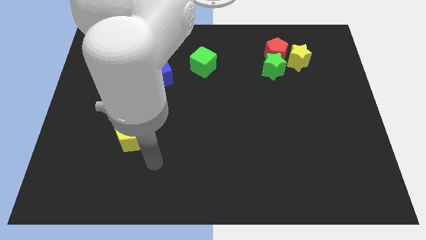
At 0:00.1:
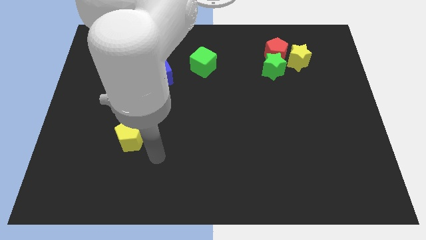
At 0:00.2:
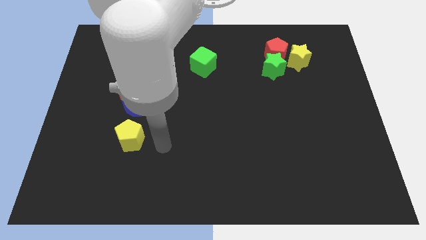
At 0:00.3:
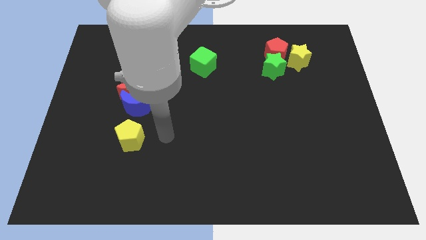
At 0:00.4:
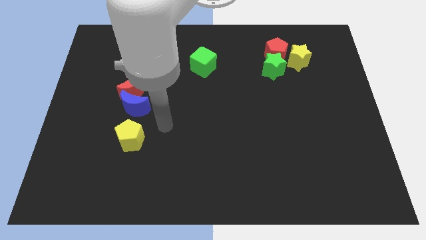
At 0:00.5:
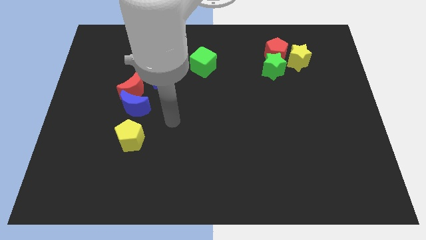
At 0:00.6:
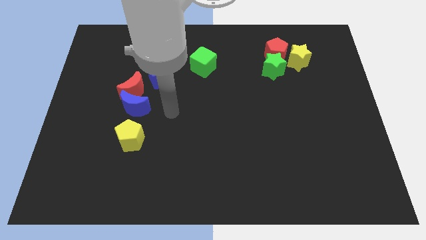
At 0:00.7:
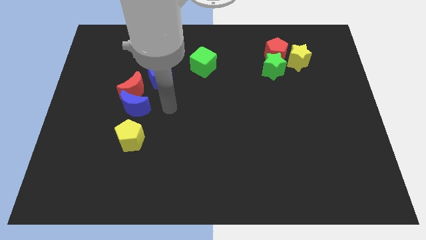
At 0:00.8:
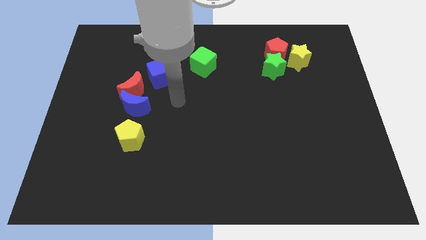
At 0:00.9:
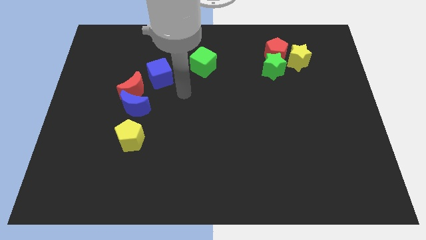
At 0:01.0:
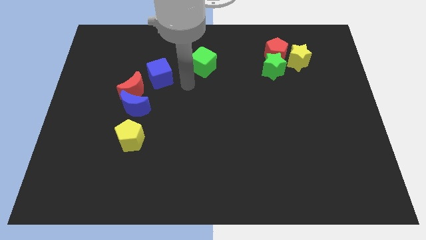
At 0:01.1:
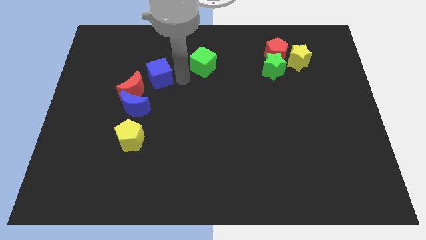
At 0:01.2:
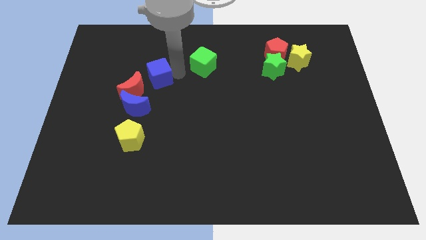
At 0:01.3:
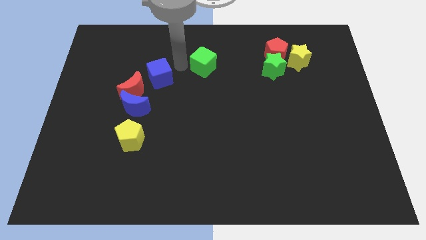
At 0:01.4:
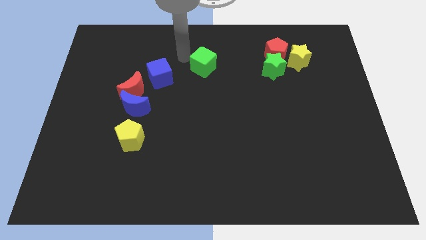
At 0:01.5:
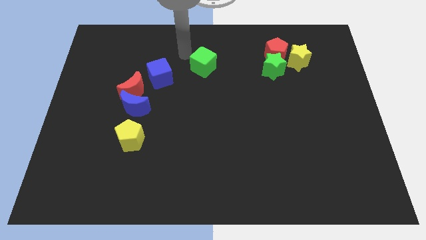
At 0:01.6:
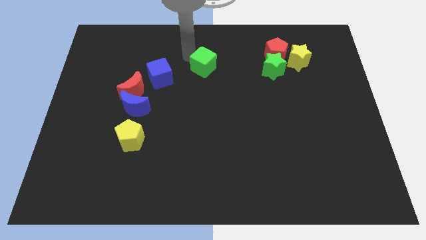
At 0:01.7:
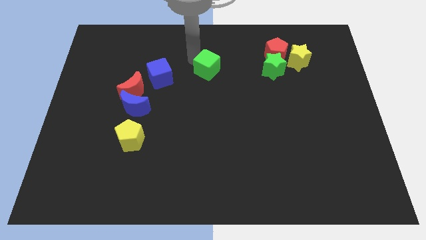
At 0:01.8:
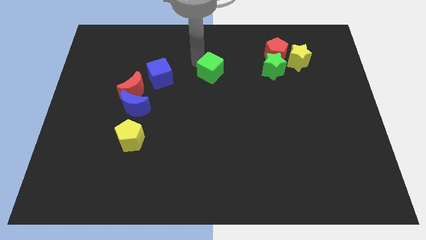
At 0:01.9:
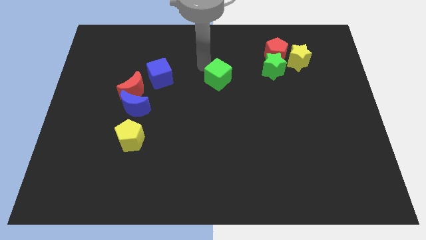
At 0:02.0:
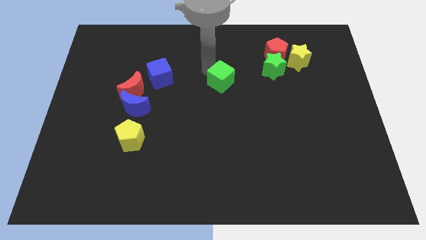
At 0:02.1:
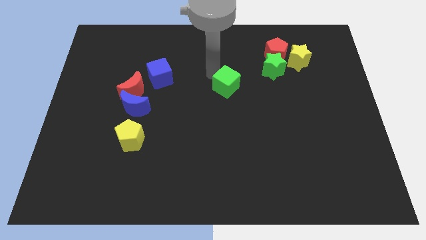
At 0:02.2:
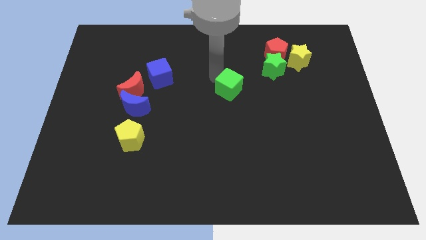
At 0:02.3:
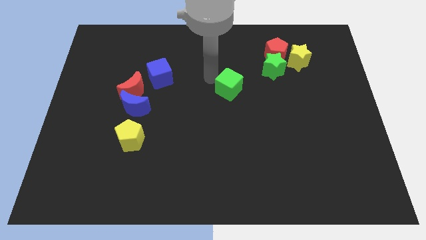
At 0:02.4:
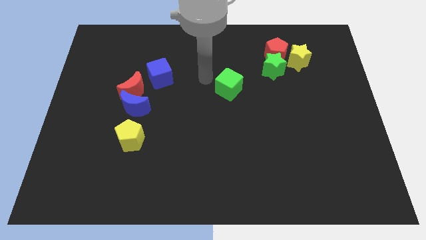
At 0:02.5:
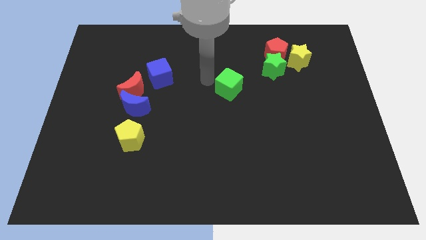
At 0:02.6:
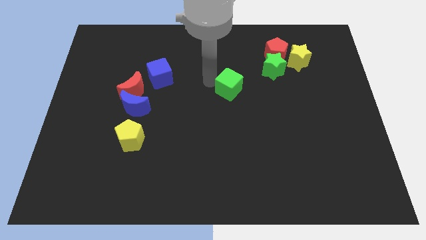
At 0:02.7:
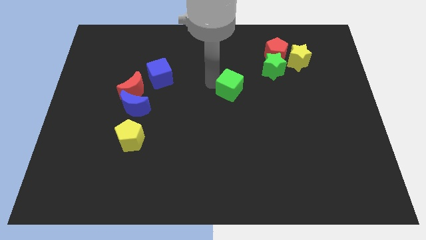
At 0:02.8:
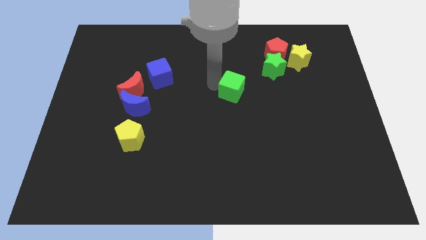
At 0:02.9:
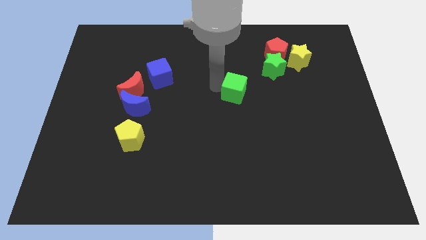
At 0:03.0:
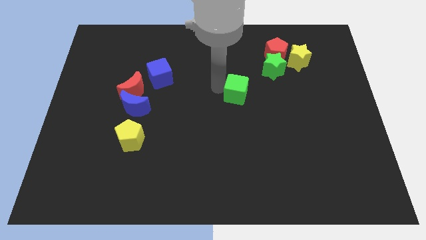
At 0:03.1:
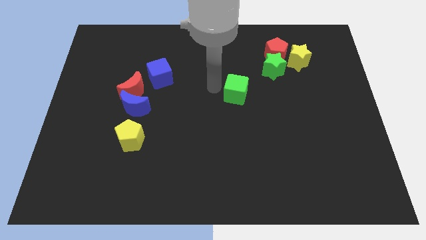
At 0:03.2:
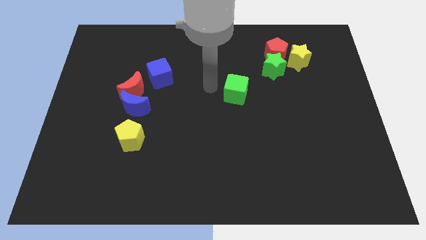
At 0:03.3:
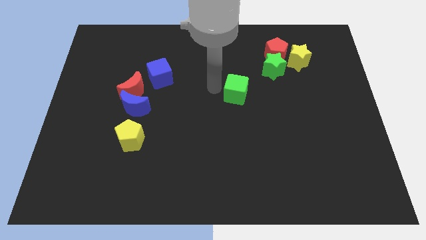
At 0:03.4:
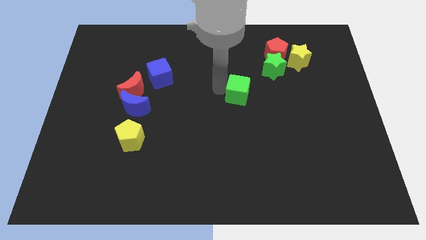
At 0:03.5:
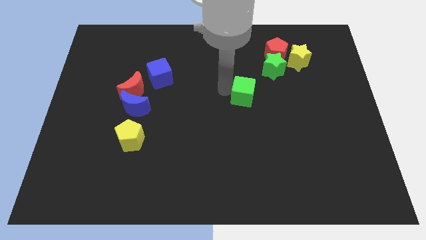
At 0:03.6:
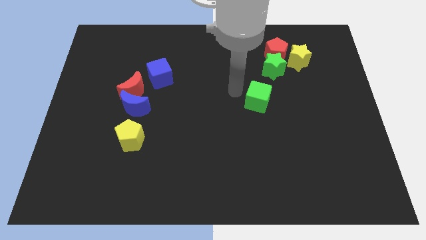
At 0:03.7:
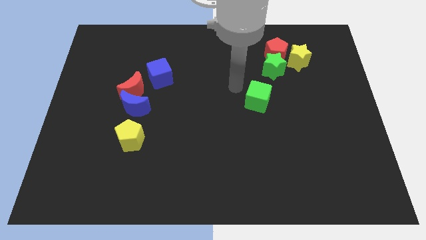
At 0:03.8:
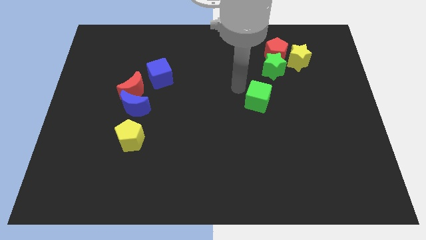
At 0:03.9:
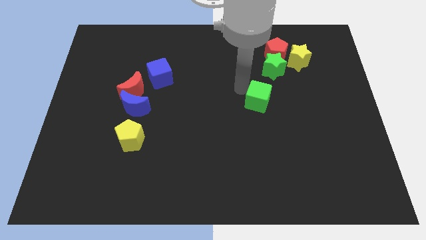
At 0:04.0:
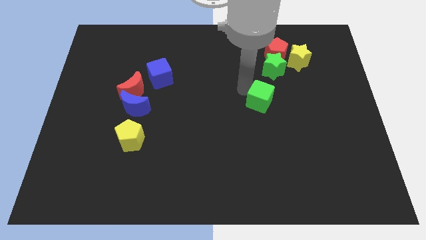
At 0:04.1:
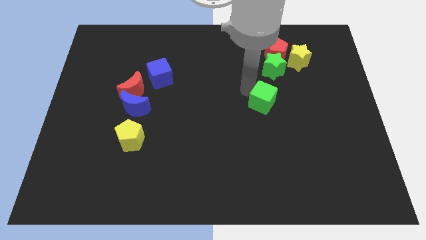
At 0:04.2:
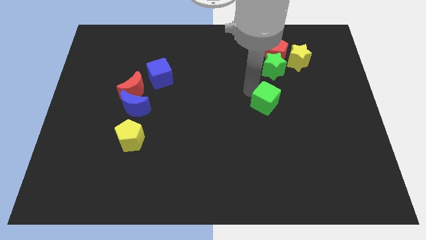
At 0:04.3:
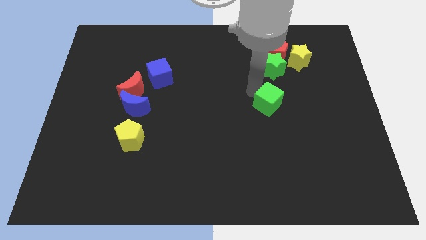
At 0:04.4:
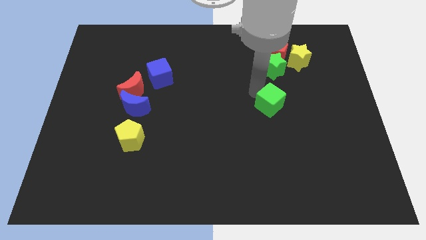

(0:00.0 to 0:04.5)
move the green cube downwards and to the right diagonally

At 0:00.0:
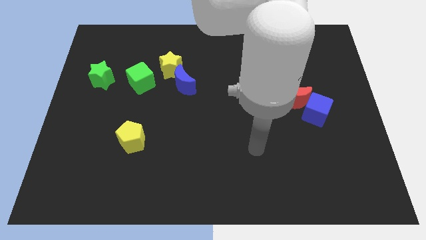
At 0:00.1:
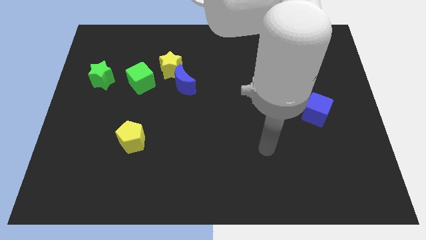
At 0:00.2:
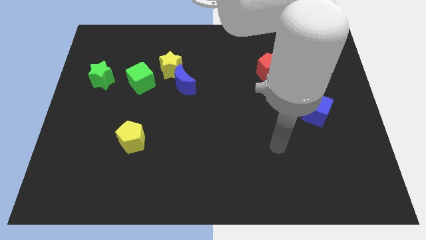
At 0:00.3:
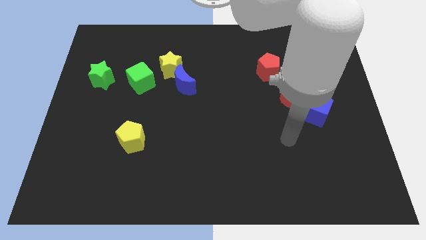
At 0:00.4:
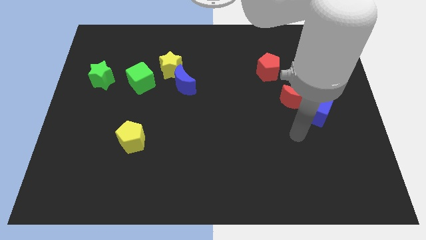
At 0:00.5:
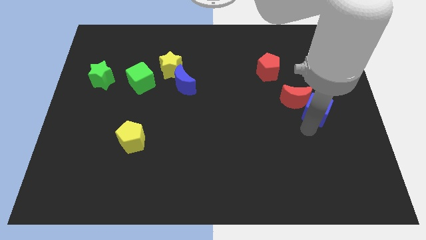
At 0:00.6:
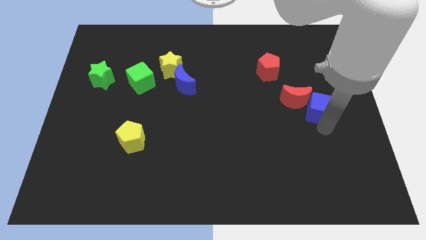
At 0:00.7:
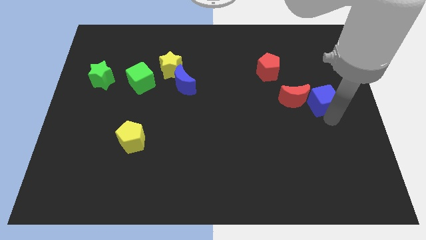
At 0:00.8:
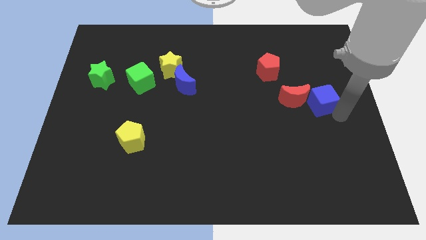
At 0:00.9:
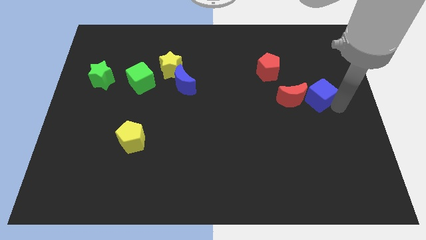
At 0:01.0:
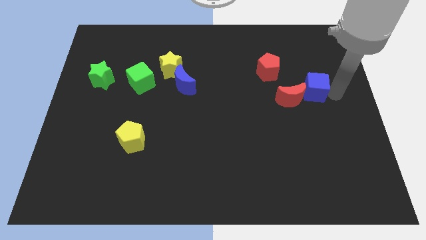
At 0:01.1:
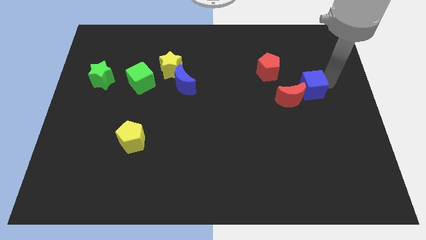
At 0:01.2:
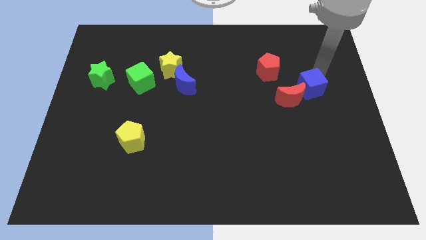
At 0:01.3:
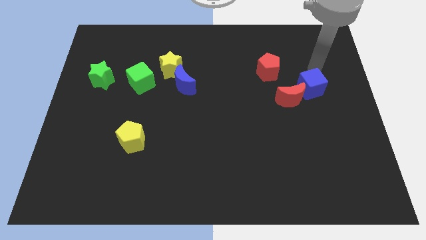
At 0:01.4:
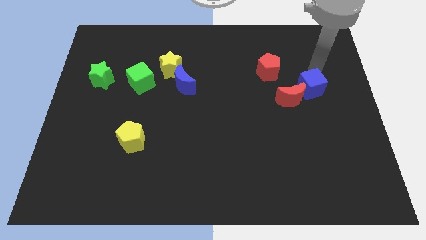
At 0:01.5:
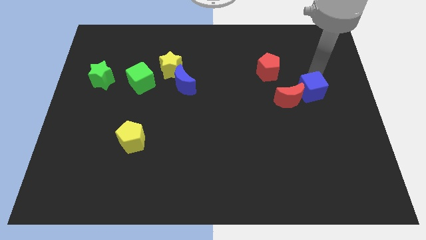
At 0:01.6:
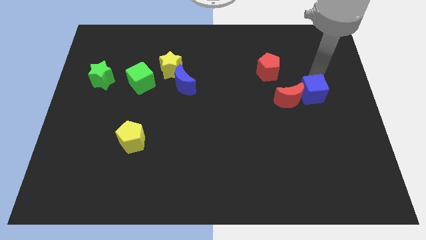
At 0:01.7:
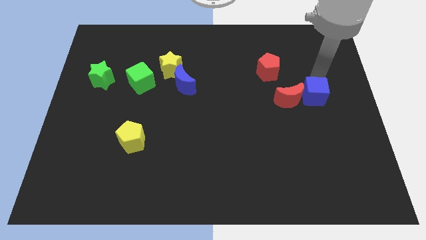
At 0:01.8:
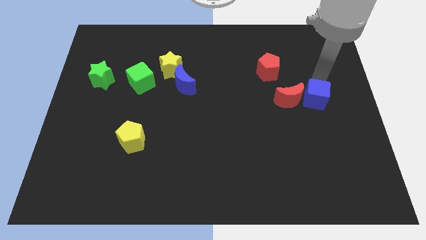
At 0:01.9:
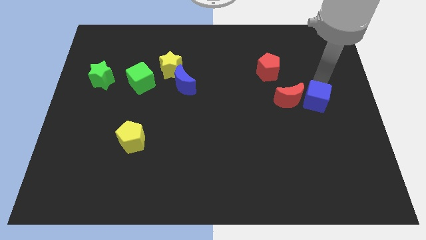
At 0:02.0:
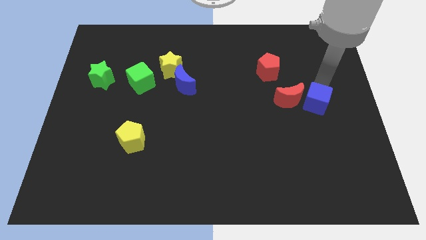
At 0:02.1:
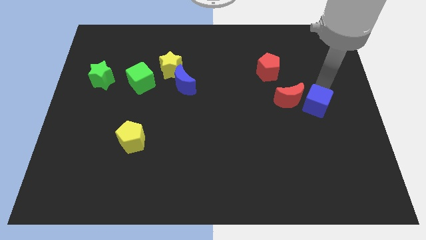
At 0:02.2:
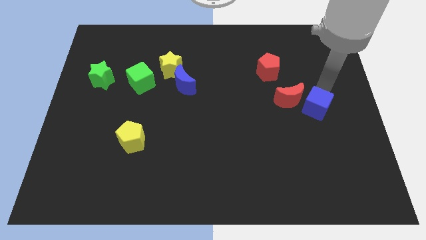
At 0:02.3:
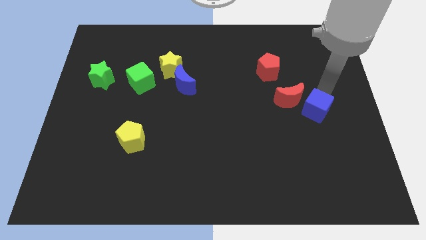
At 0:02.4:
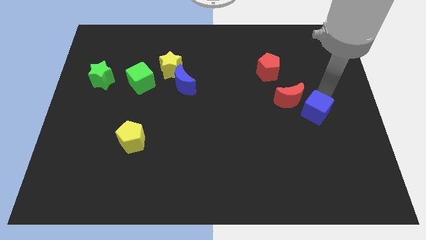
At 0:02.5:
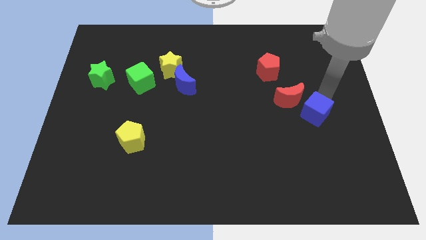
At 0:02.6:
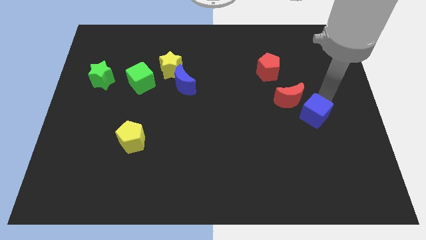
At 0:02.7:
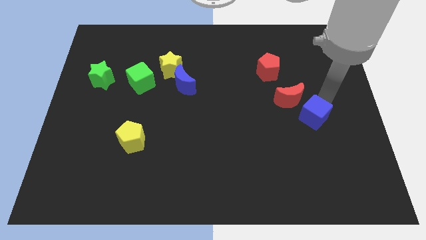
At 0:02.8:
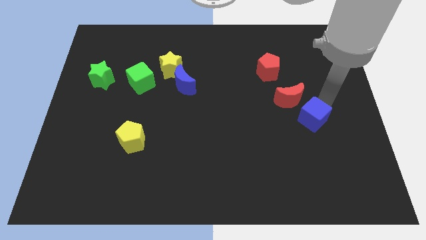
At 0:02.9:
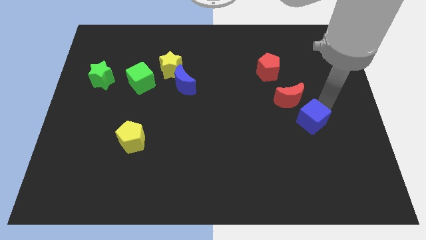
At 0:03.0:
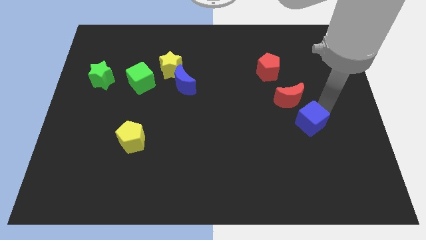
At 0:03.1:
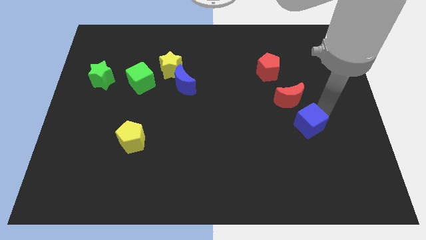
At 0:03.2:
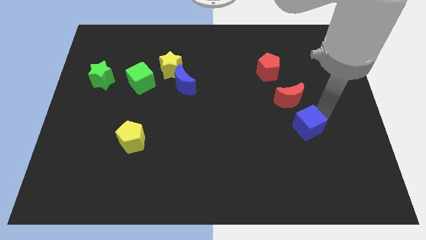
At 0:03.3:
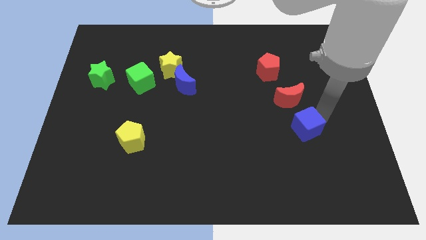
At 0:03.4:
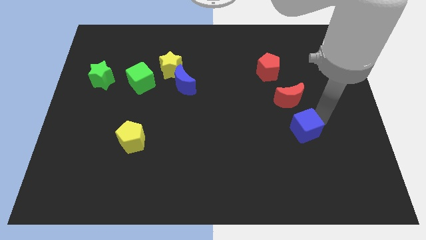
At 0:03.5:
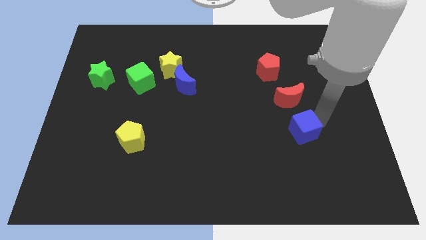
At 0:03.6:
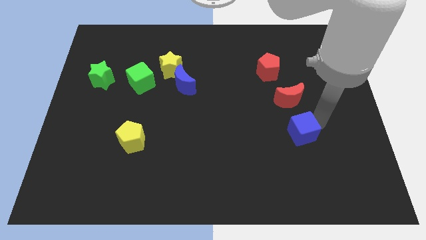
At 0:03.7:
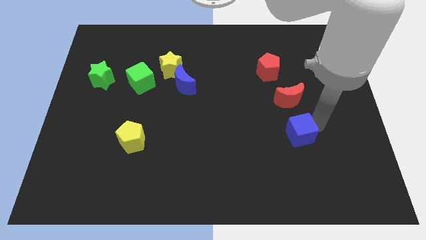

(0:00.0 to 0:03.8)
push the blue cube somewhat down and to the left diagonally

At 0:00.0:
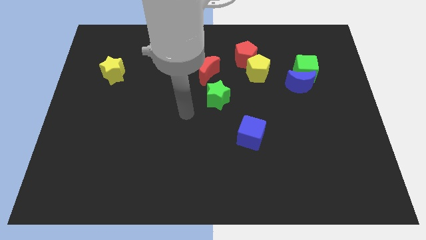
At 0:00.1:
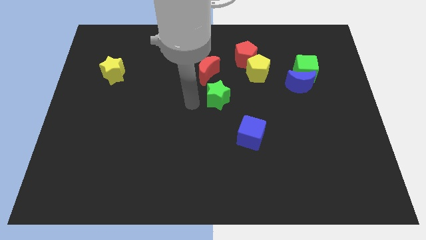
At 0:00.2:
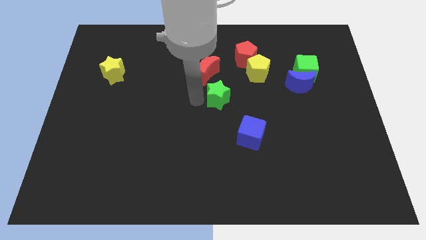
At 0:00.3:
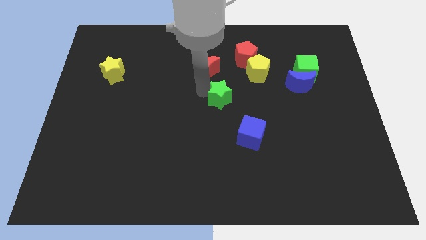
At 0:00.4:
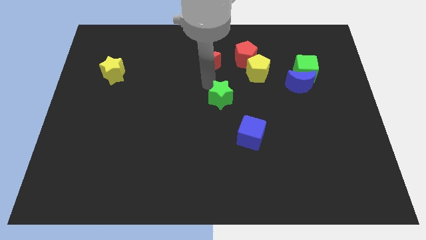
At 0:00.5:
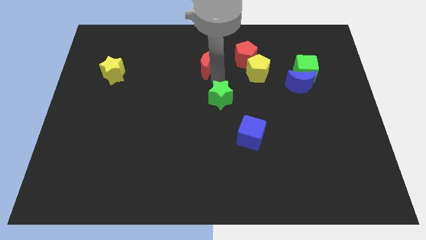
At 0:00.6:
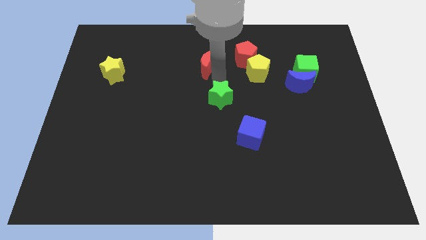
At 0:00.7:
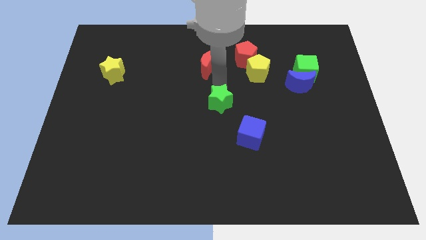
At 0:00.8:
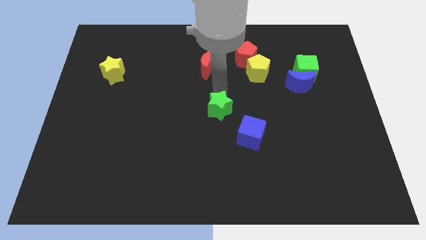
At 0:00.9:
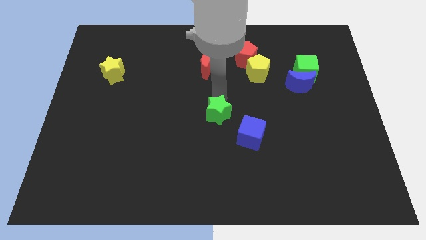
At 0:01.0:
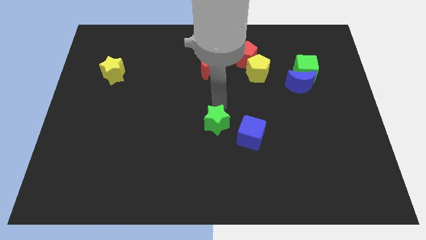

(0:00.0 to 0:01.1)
slightly move the green star down
